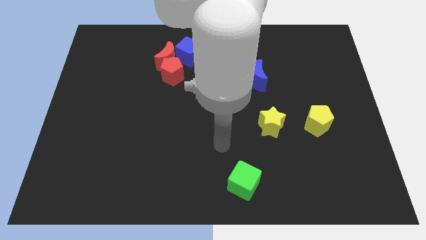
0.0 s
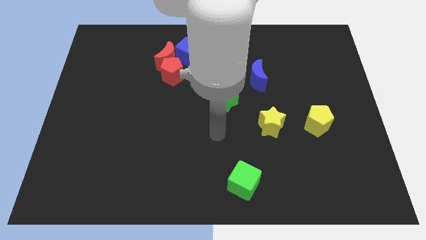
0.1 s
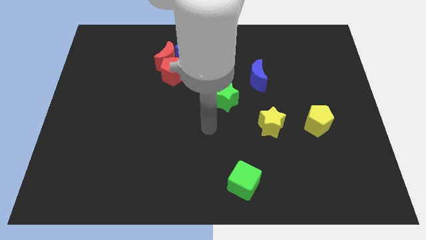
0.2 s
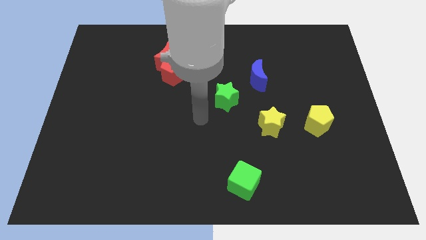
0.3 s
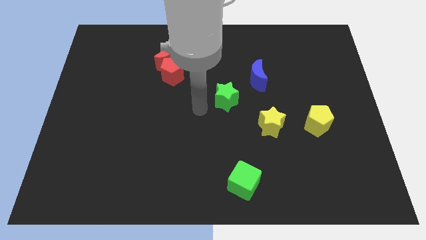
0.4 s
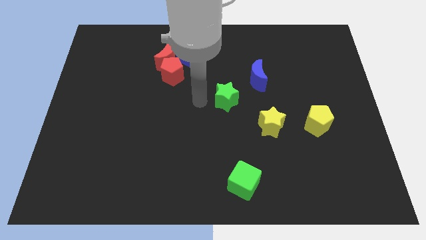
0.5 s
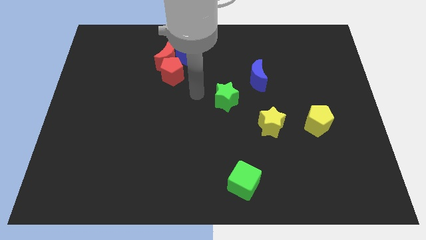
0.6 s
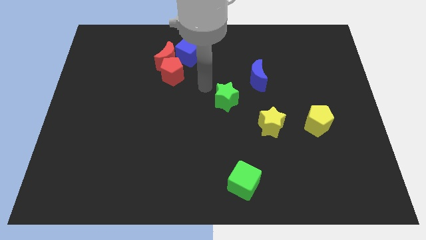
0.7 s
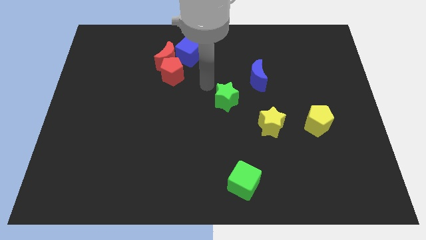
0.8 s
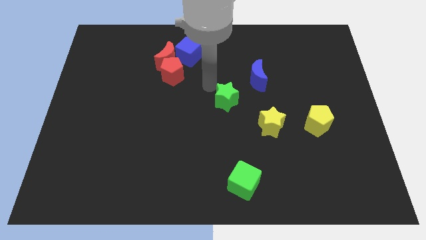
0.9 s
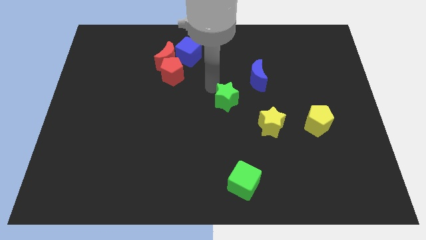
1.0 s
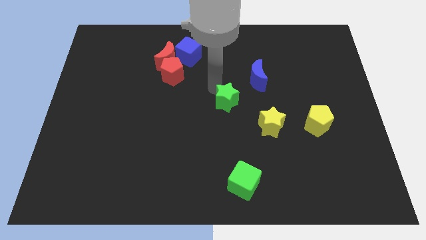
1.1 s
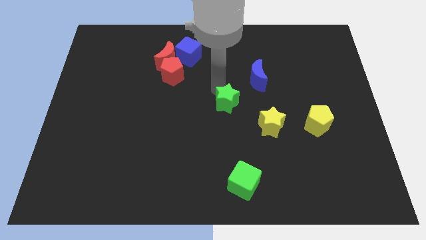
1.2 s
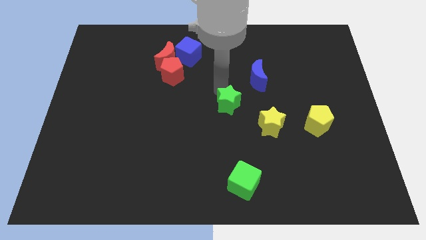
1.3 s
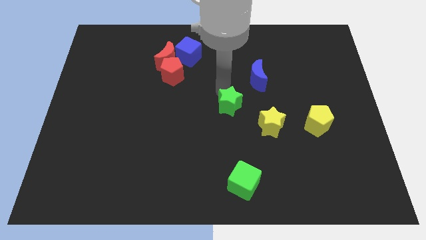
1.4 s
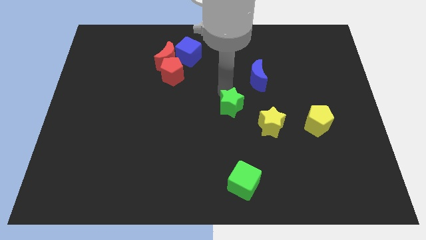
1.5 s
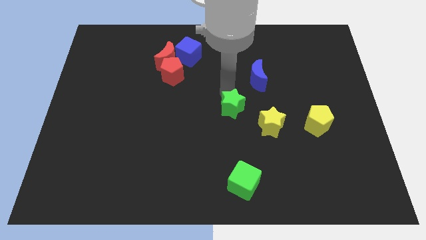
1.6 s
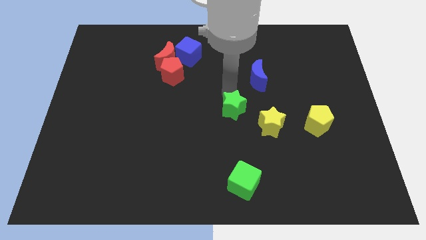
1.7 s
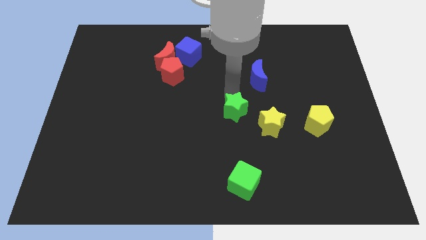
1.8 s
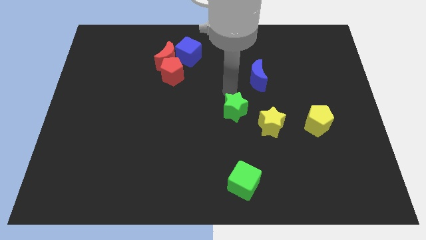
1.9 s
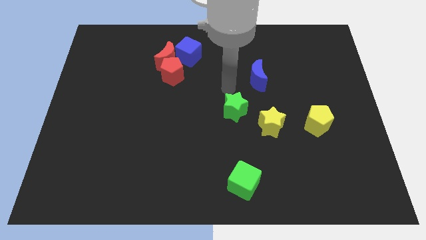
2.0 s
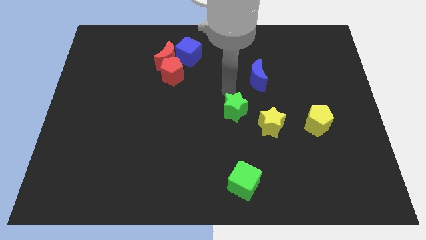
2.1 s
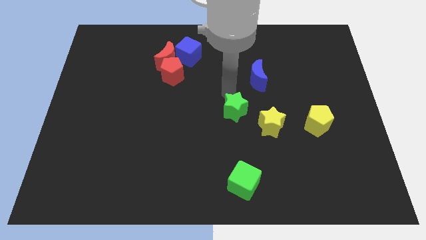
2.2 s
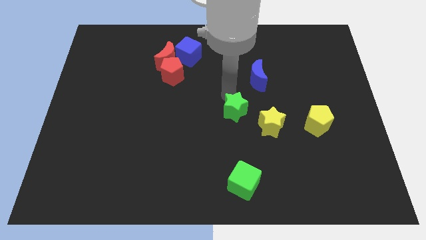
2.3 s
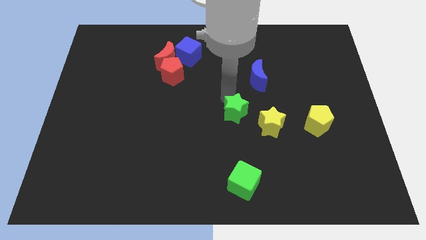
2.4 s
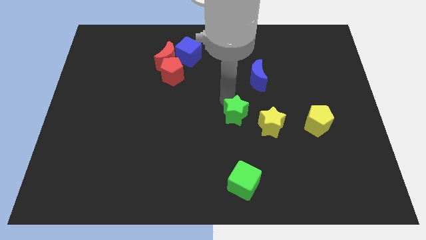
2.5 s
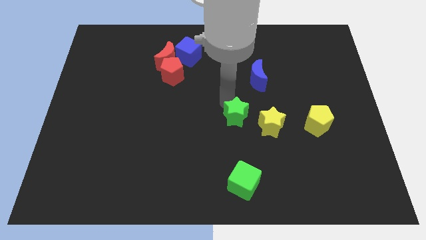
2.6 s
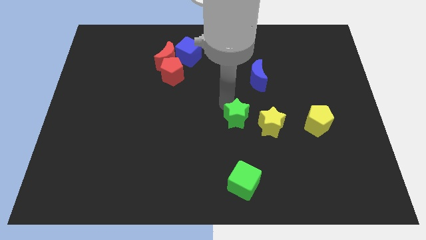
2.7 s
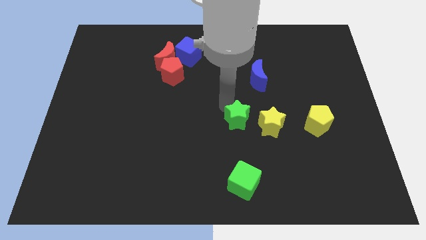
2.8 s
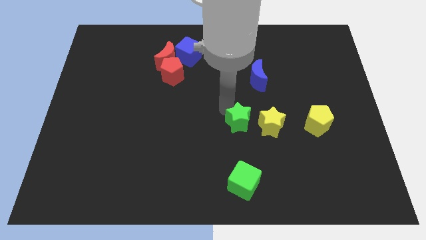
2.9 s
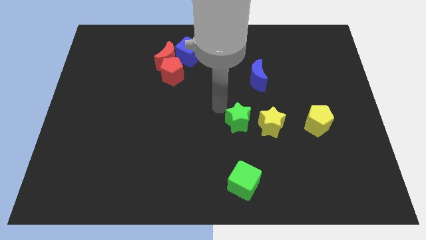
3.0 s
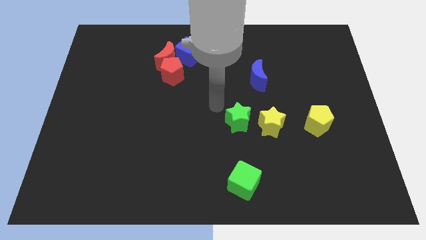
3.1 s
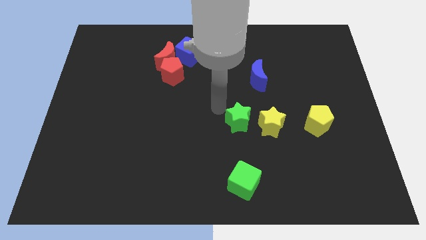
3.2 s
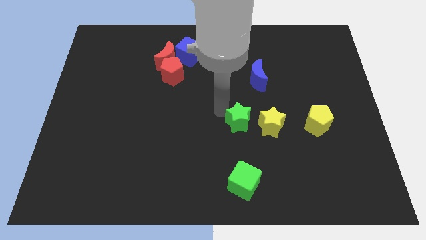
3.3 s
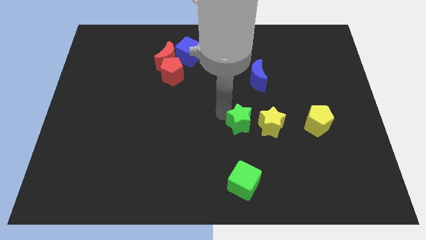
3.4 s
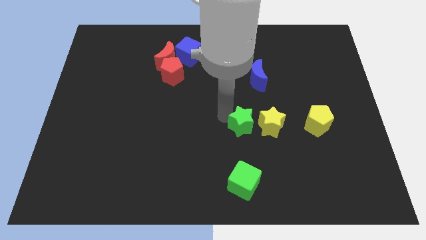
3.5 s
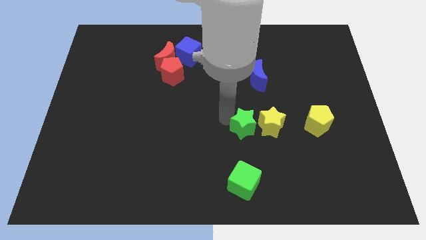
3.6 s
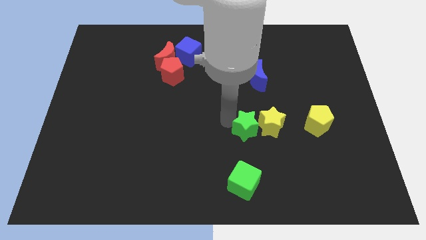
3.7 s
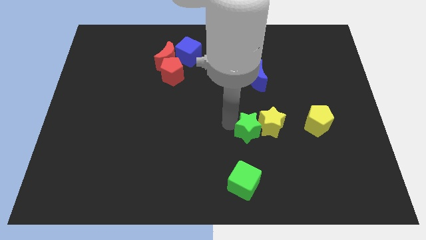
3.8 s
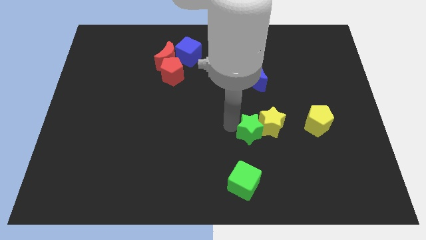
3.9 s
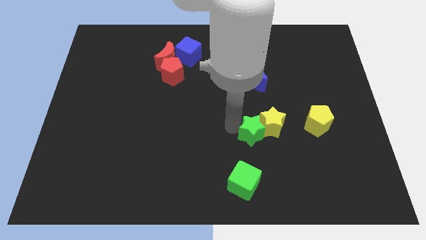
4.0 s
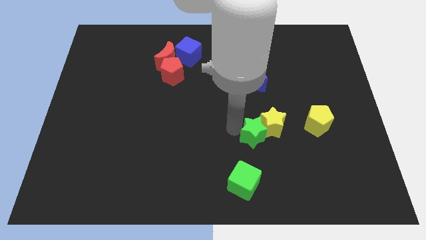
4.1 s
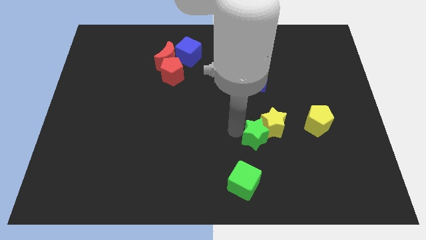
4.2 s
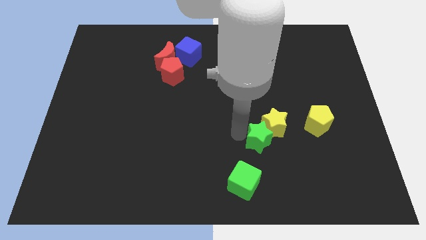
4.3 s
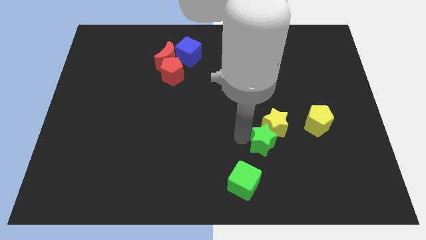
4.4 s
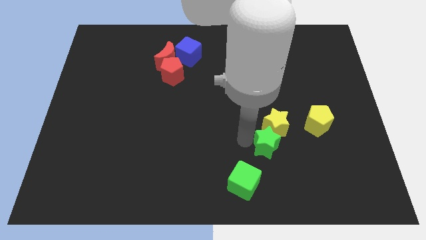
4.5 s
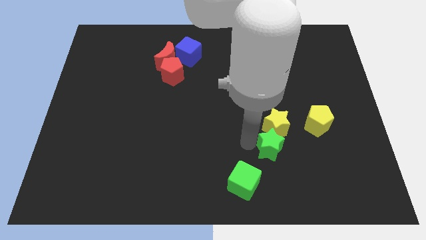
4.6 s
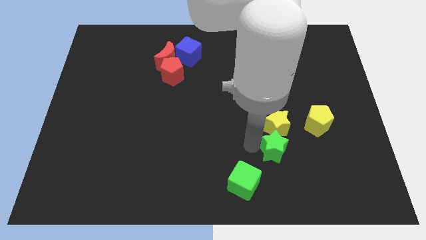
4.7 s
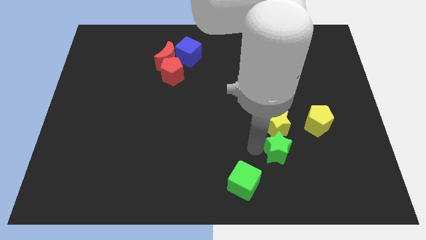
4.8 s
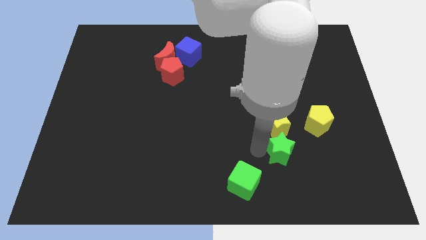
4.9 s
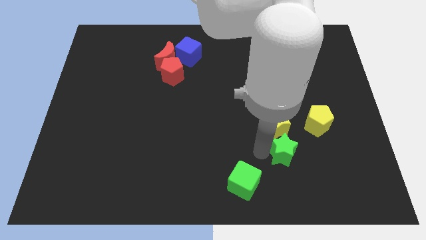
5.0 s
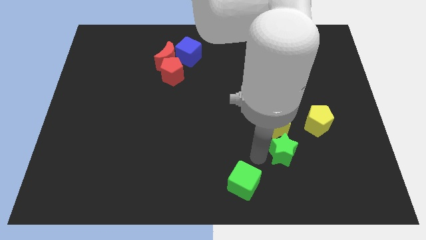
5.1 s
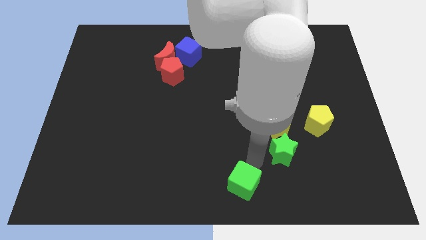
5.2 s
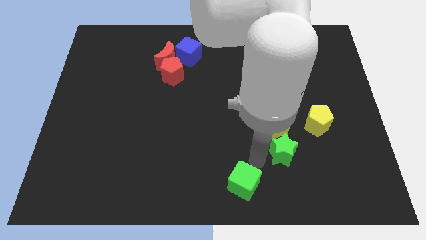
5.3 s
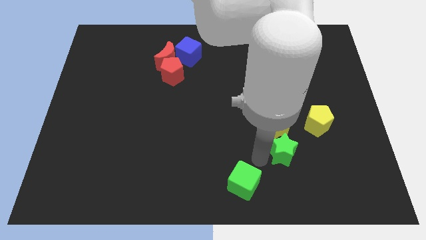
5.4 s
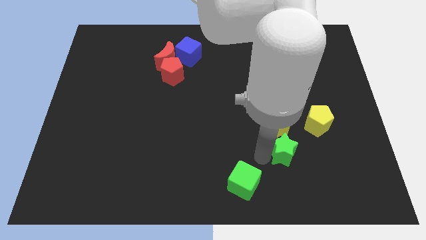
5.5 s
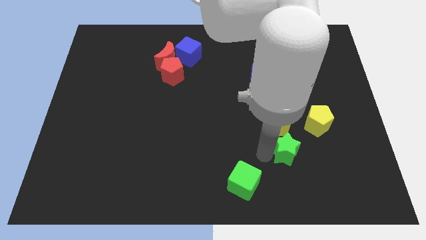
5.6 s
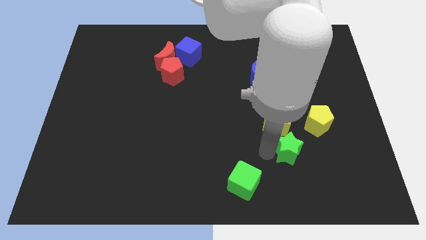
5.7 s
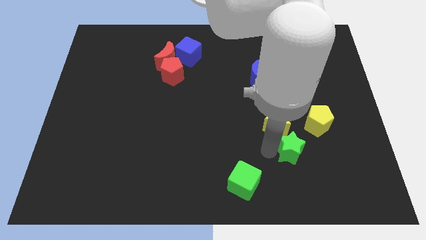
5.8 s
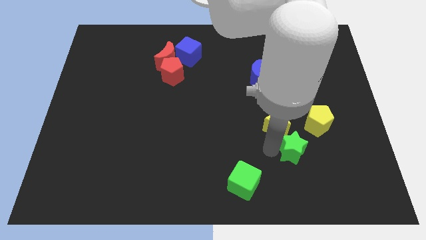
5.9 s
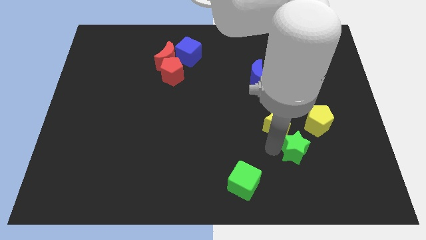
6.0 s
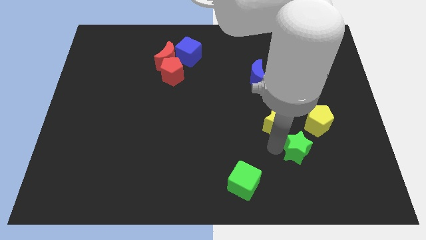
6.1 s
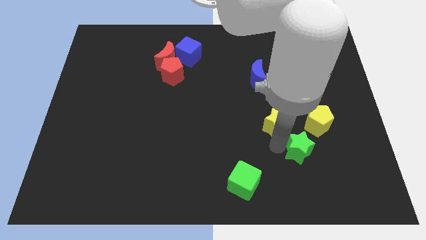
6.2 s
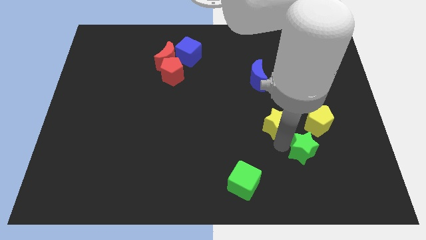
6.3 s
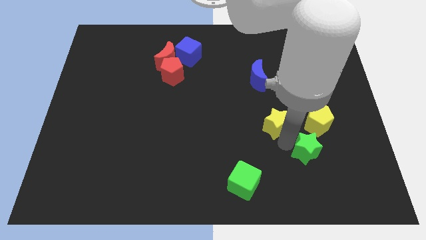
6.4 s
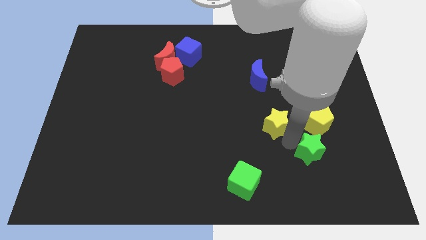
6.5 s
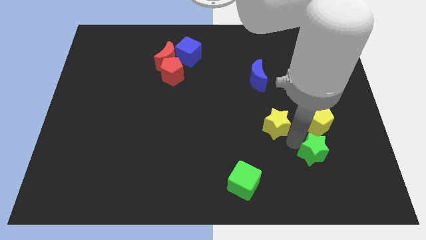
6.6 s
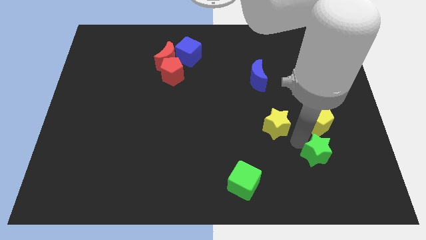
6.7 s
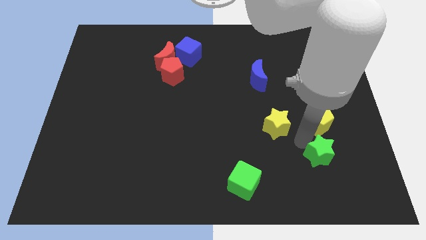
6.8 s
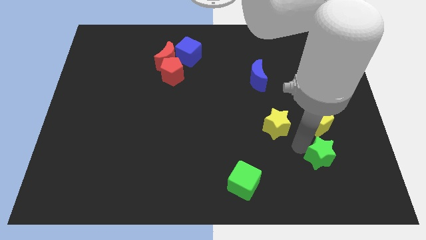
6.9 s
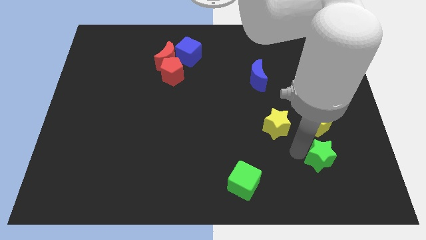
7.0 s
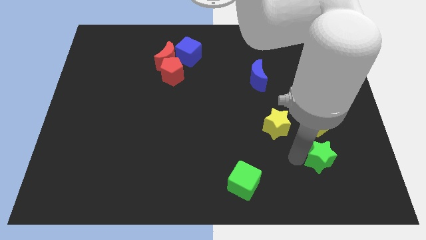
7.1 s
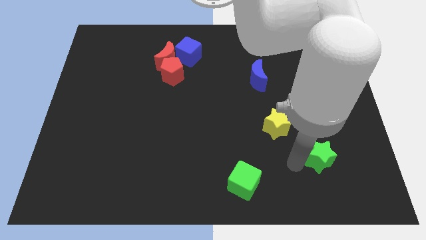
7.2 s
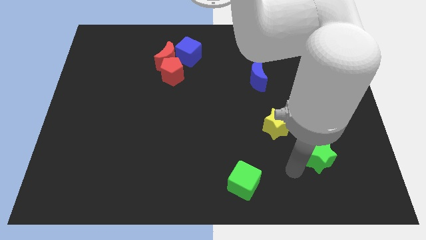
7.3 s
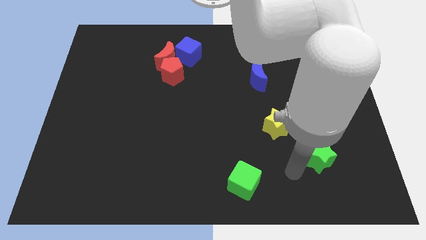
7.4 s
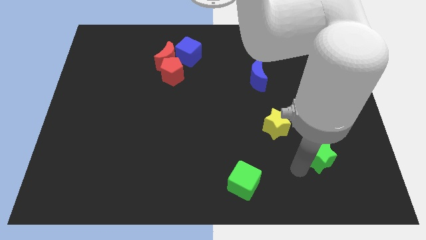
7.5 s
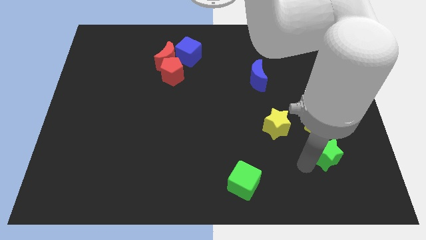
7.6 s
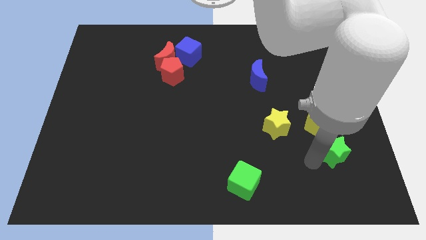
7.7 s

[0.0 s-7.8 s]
slide the green star to the bottom right side of the yellow pentagon
